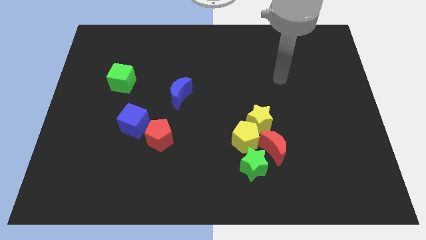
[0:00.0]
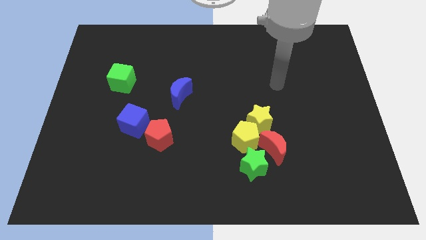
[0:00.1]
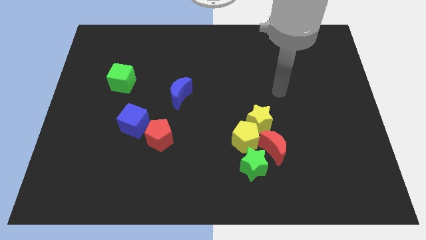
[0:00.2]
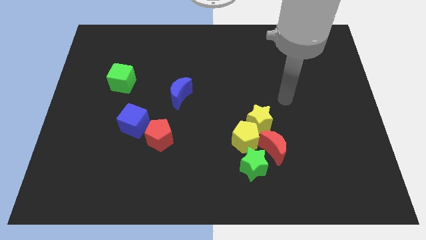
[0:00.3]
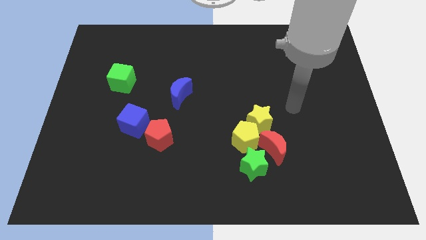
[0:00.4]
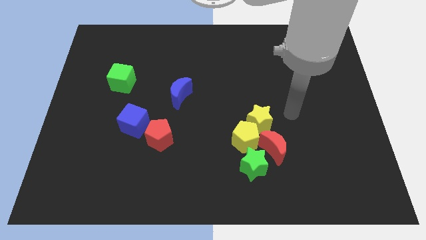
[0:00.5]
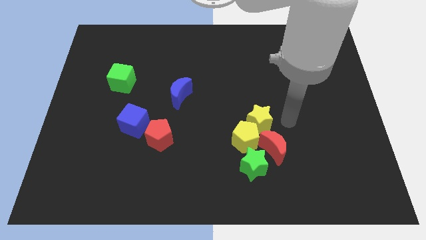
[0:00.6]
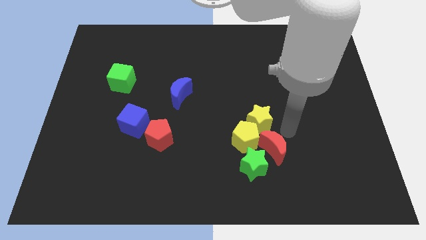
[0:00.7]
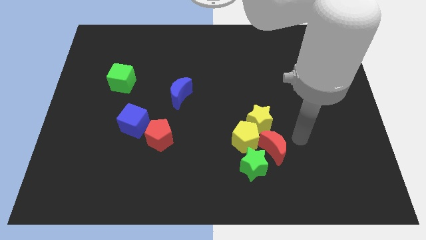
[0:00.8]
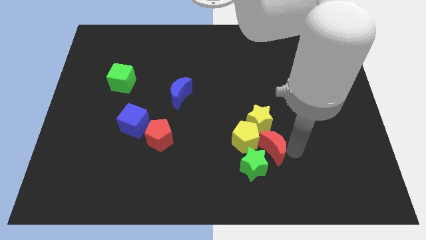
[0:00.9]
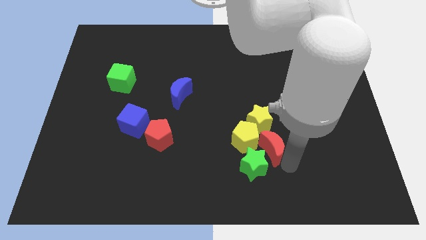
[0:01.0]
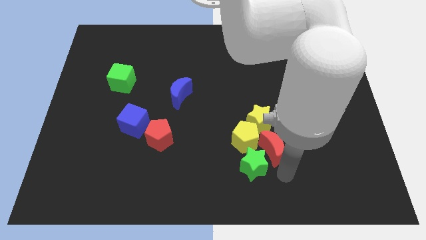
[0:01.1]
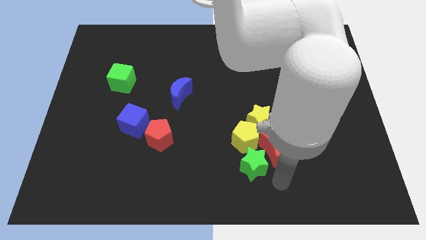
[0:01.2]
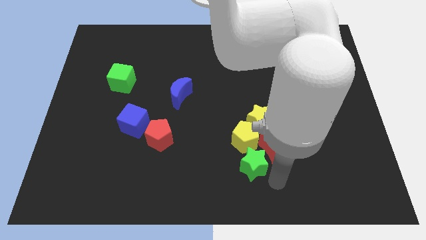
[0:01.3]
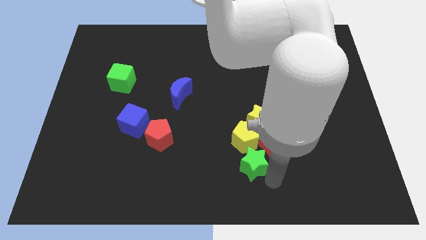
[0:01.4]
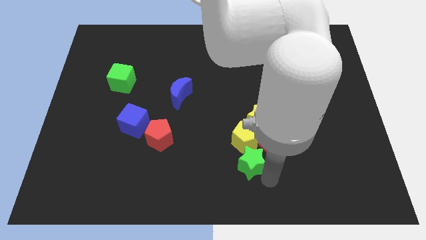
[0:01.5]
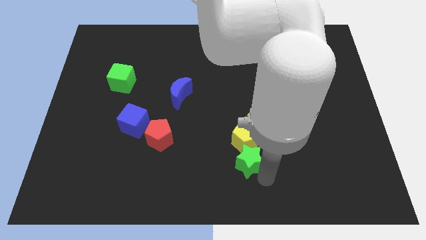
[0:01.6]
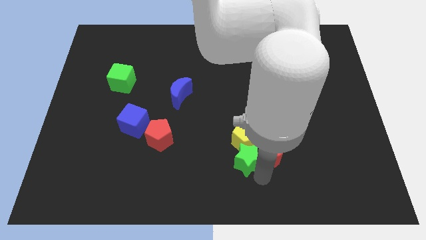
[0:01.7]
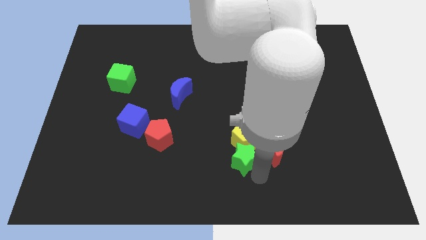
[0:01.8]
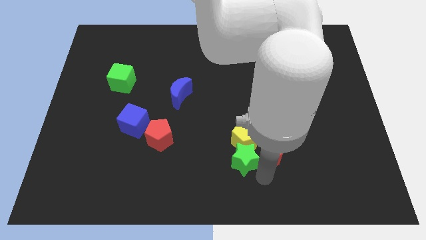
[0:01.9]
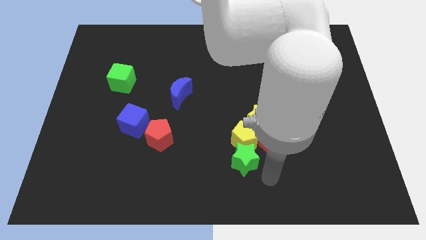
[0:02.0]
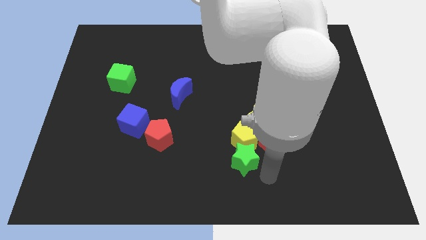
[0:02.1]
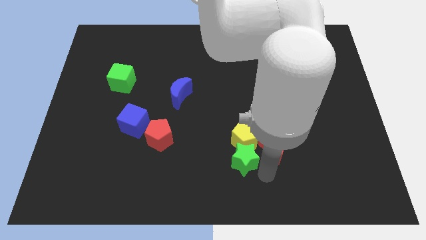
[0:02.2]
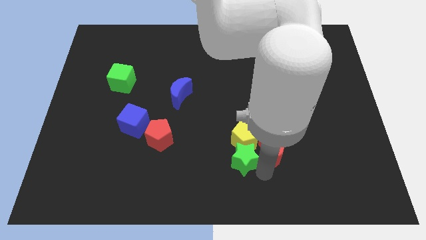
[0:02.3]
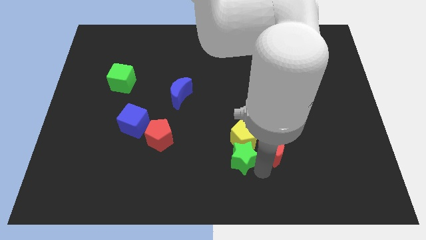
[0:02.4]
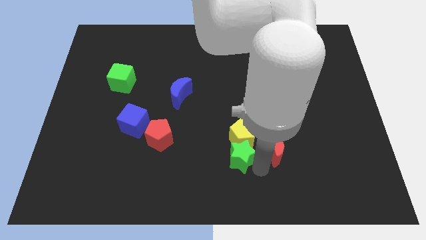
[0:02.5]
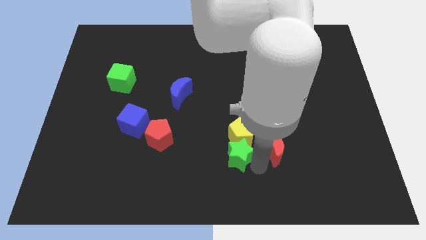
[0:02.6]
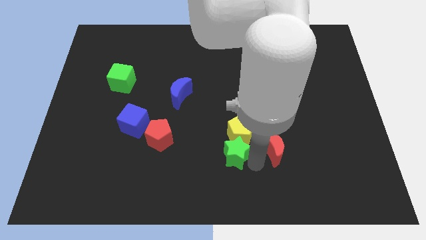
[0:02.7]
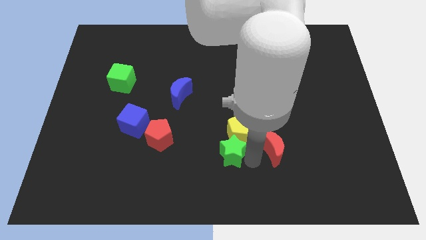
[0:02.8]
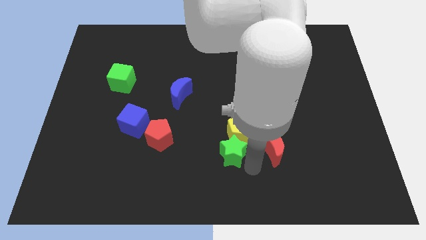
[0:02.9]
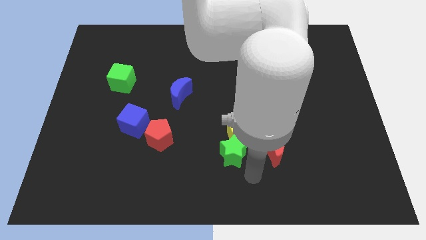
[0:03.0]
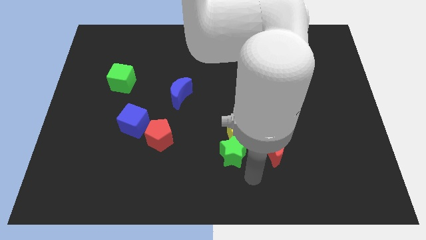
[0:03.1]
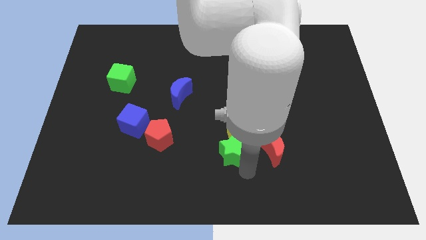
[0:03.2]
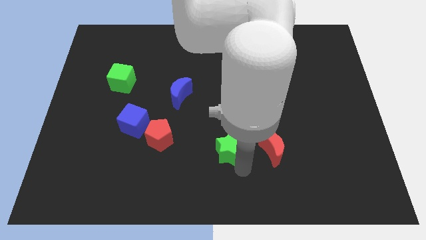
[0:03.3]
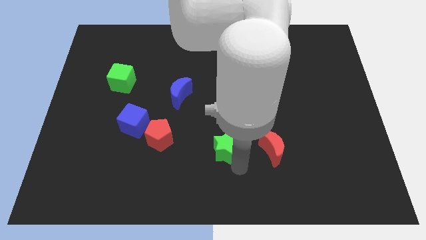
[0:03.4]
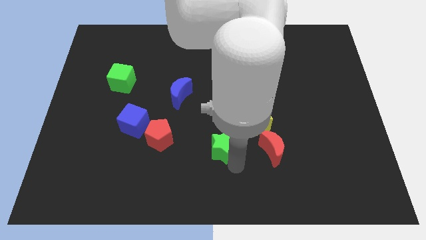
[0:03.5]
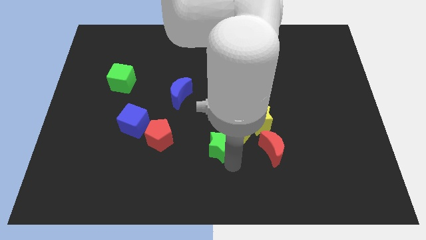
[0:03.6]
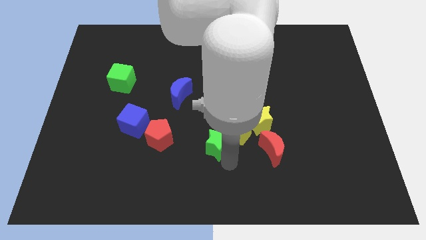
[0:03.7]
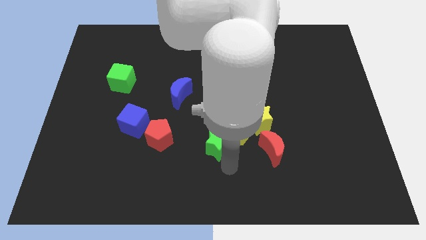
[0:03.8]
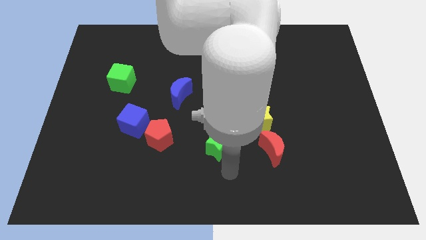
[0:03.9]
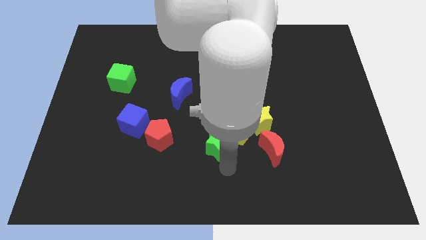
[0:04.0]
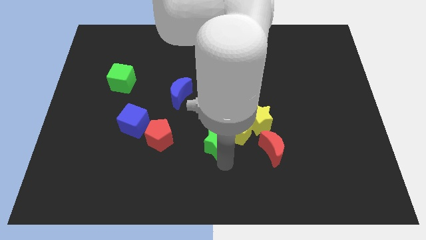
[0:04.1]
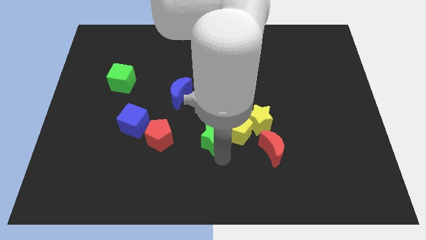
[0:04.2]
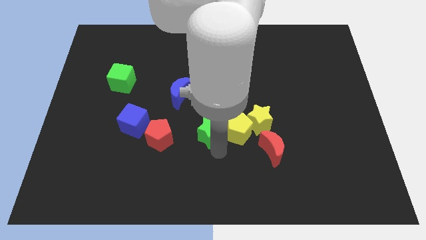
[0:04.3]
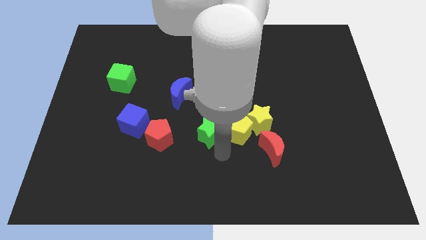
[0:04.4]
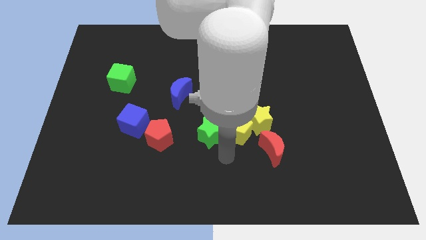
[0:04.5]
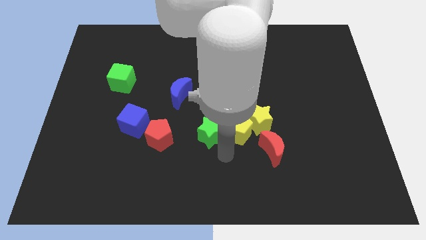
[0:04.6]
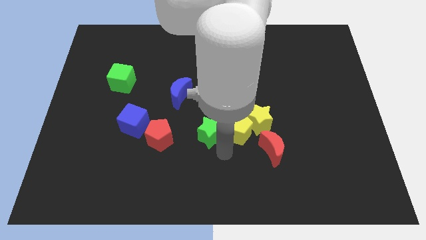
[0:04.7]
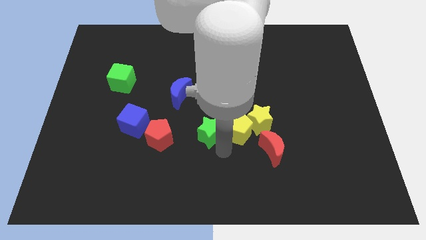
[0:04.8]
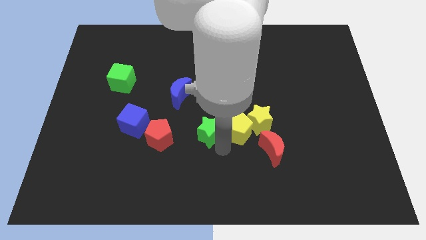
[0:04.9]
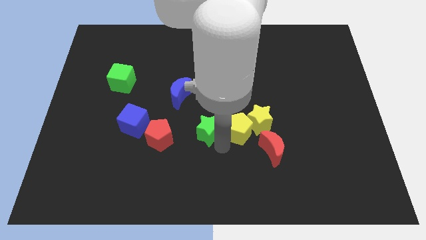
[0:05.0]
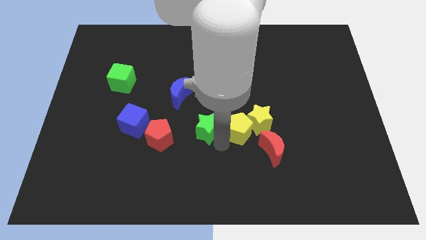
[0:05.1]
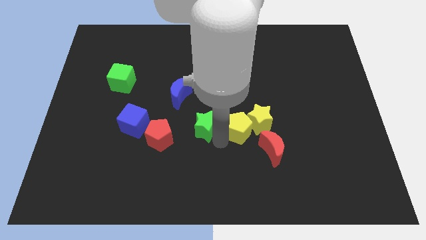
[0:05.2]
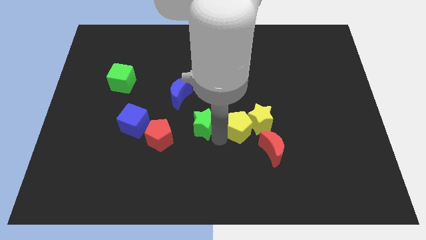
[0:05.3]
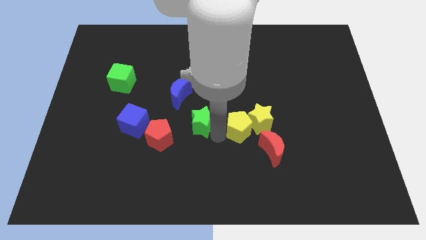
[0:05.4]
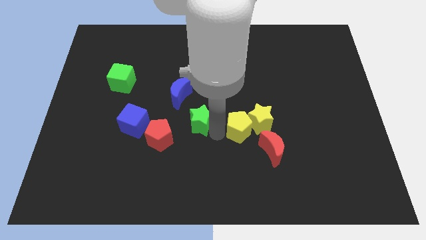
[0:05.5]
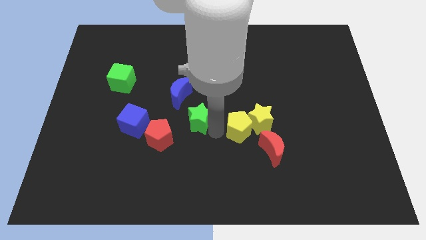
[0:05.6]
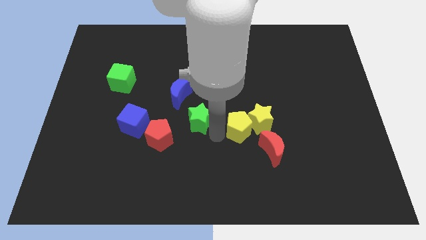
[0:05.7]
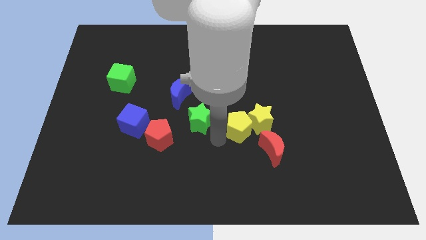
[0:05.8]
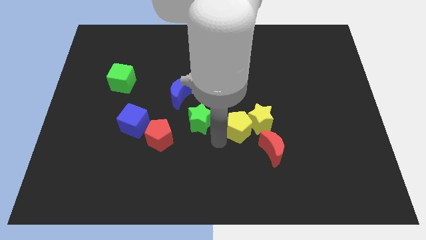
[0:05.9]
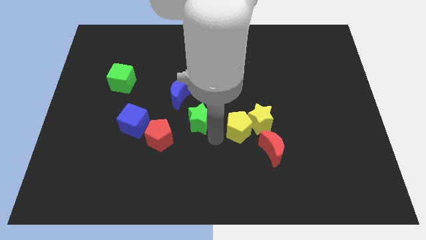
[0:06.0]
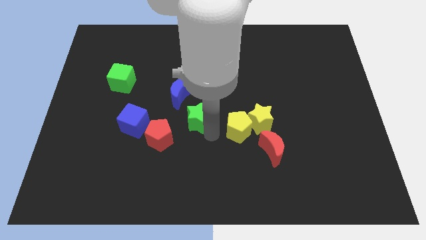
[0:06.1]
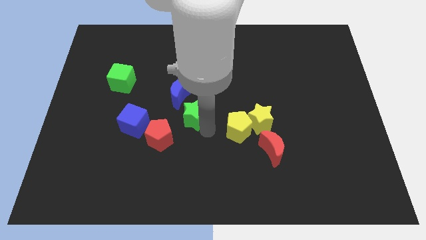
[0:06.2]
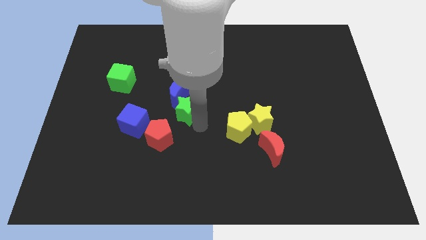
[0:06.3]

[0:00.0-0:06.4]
slide the green star to the blue moon
